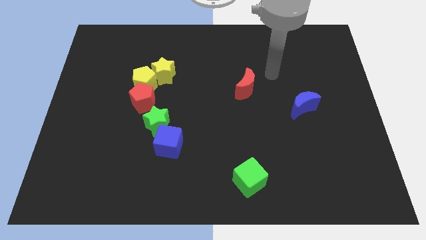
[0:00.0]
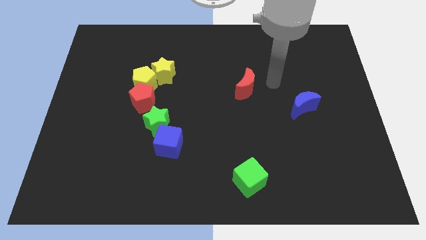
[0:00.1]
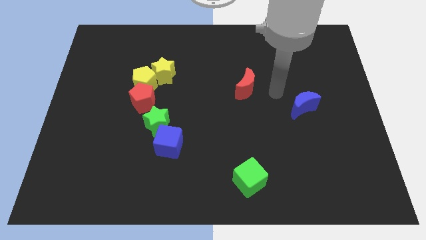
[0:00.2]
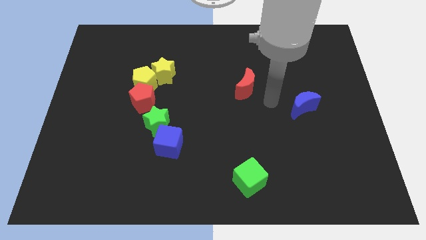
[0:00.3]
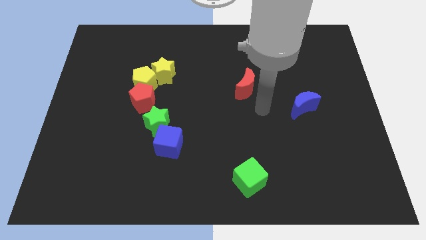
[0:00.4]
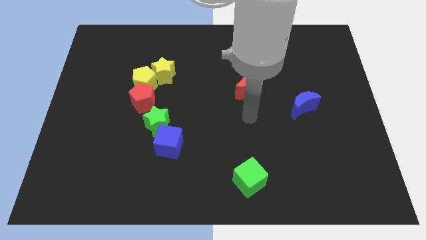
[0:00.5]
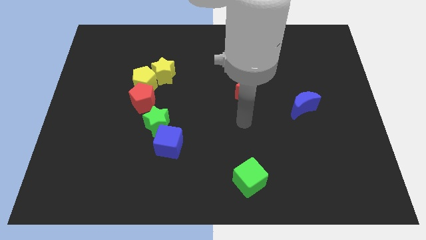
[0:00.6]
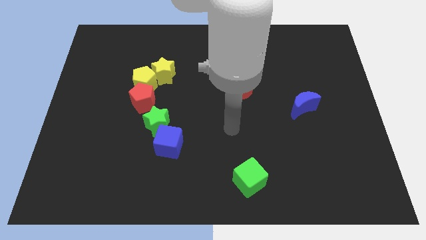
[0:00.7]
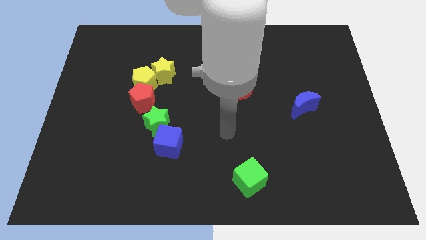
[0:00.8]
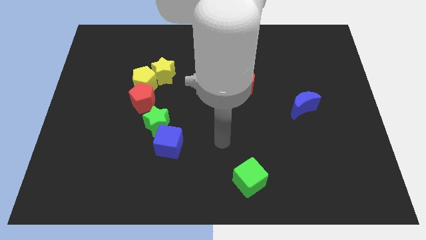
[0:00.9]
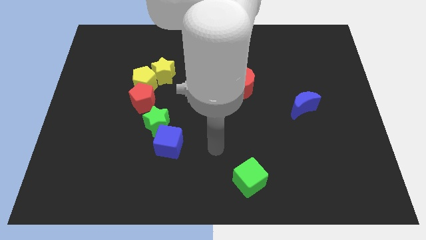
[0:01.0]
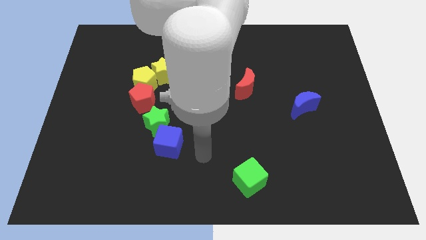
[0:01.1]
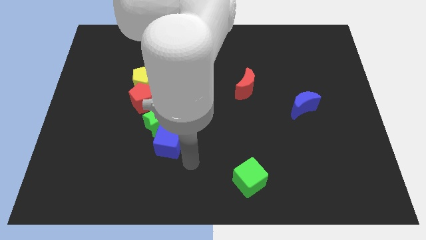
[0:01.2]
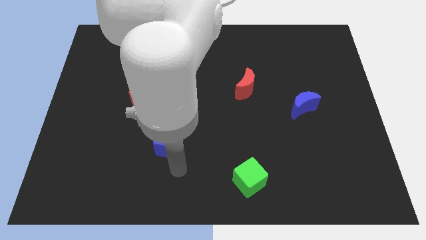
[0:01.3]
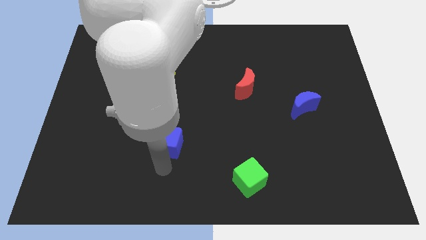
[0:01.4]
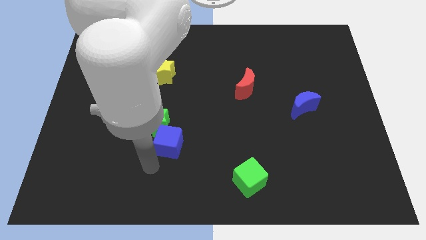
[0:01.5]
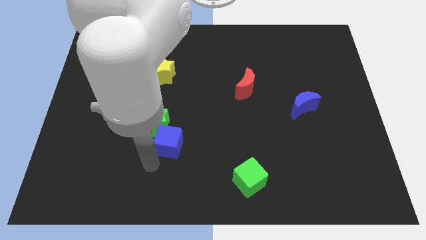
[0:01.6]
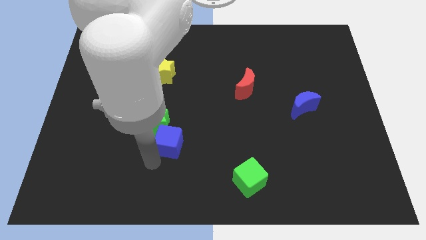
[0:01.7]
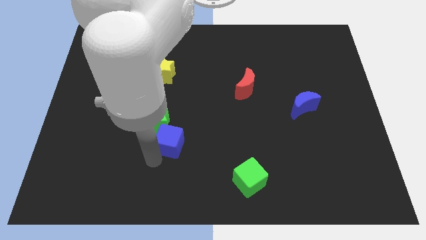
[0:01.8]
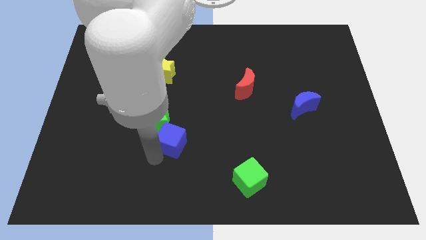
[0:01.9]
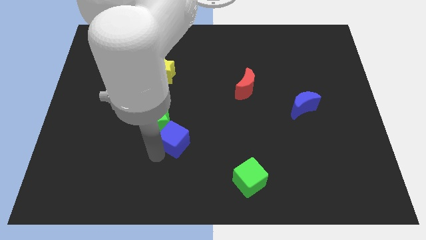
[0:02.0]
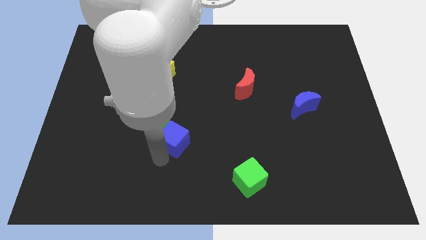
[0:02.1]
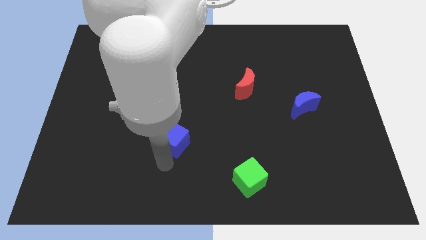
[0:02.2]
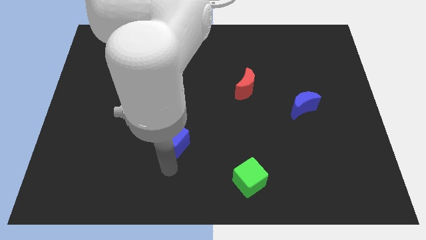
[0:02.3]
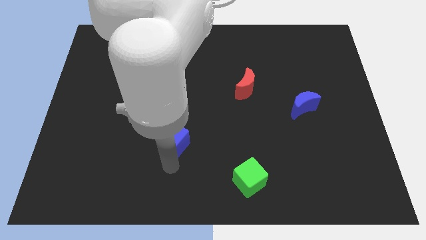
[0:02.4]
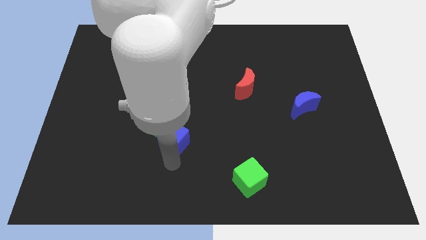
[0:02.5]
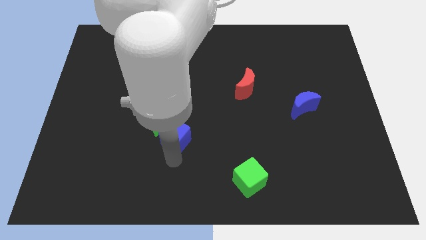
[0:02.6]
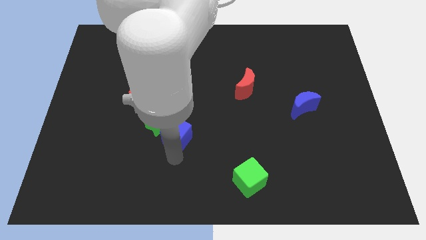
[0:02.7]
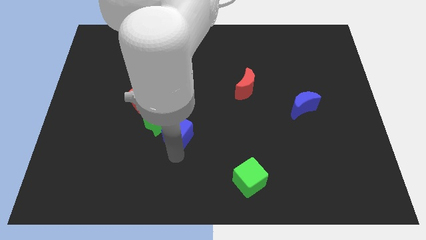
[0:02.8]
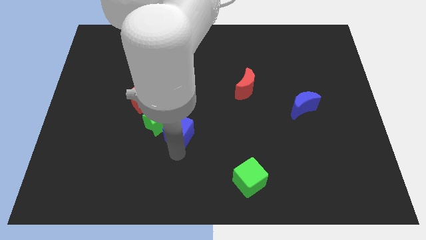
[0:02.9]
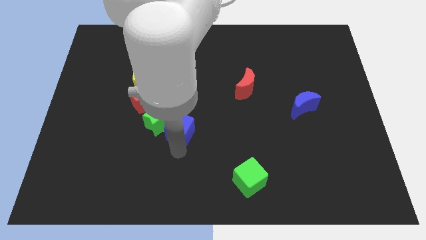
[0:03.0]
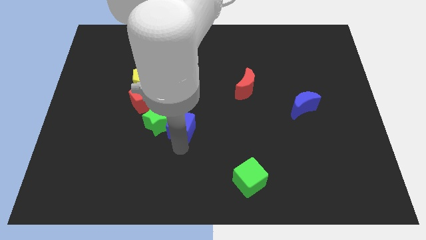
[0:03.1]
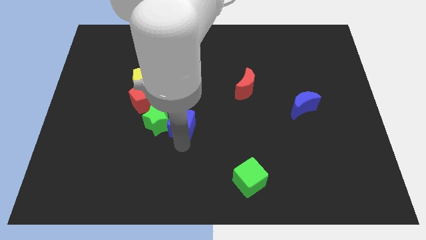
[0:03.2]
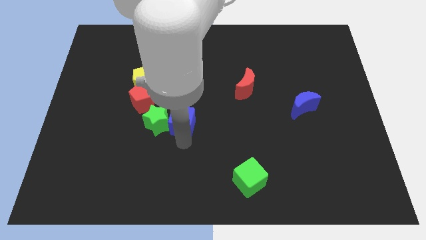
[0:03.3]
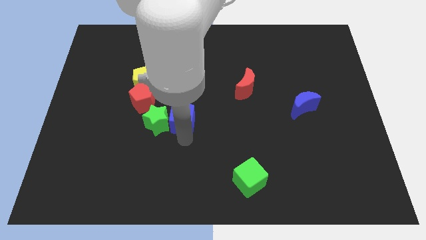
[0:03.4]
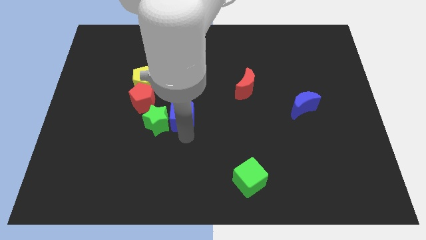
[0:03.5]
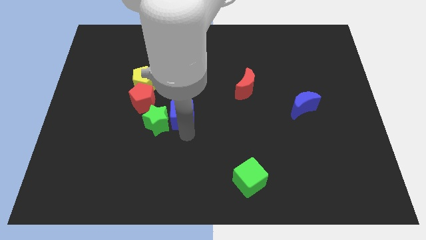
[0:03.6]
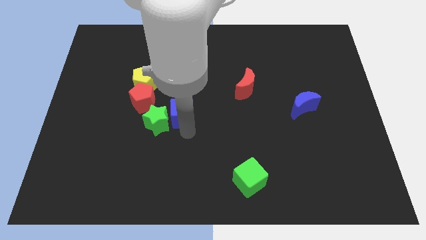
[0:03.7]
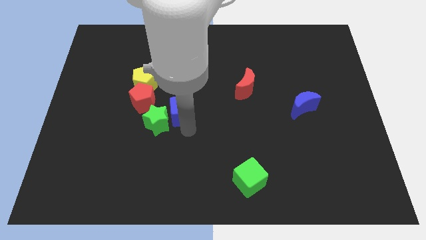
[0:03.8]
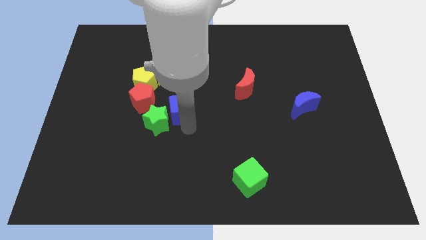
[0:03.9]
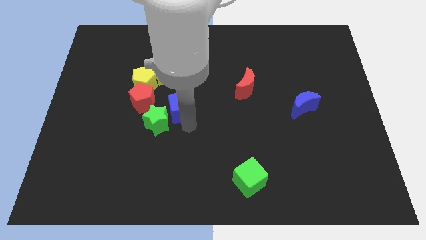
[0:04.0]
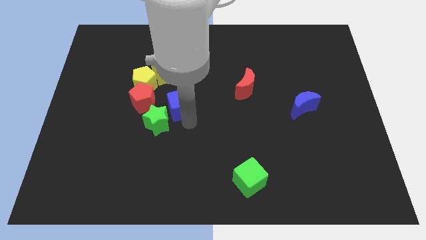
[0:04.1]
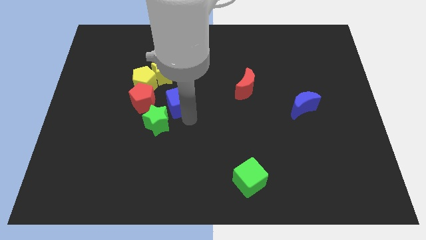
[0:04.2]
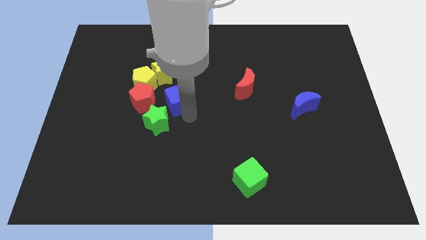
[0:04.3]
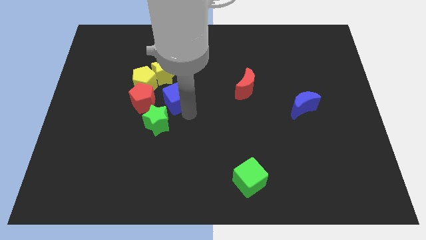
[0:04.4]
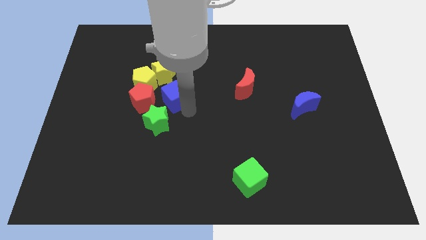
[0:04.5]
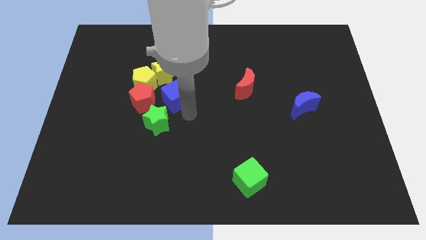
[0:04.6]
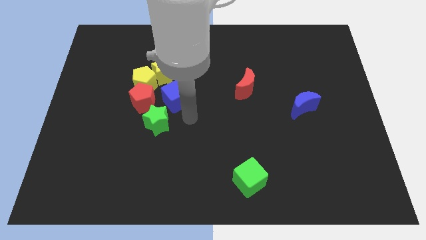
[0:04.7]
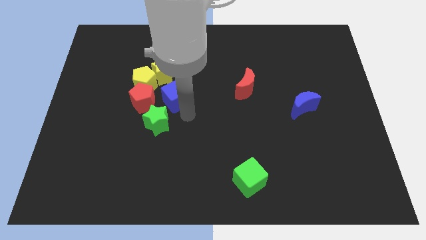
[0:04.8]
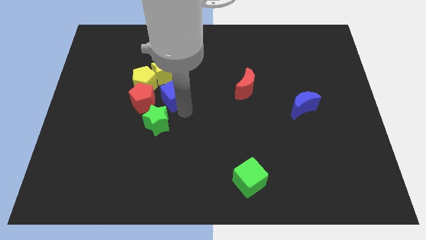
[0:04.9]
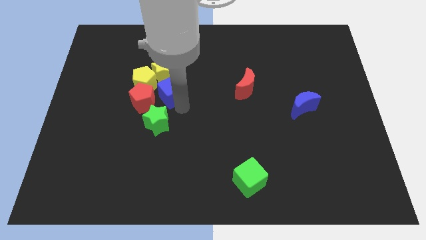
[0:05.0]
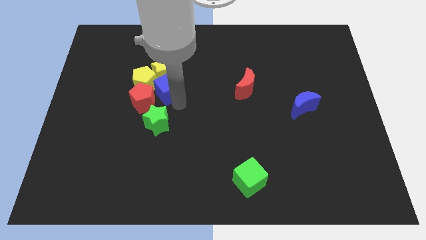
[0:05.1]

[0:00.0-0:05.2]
push the blue cube towards the yellow star

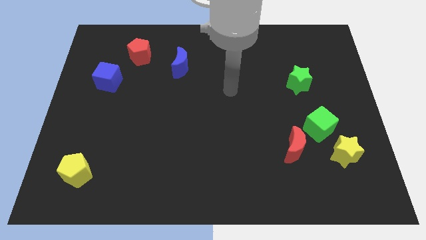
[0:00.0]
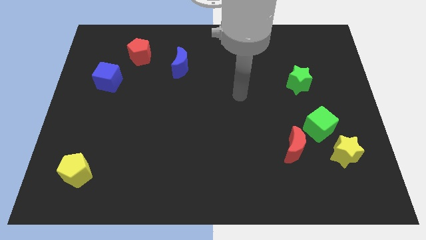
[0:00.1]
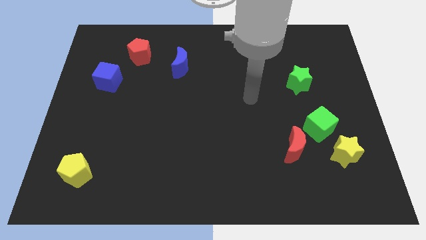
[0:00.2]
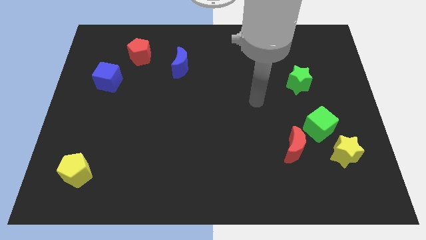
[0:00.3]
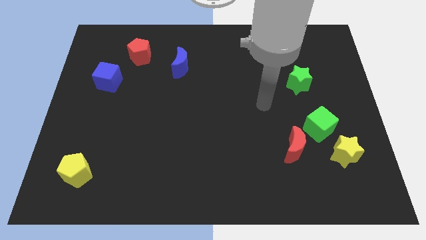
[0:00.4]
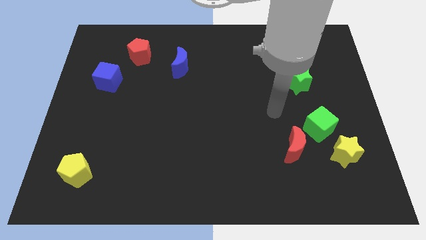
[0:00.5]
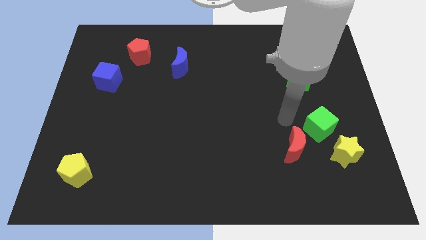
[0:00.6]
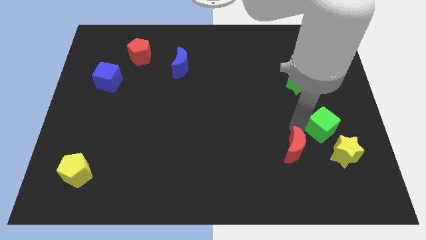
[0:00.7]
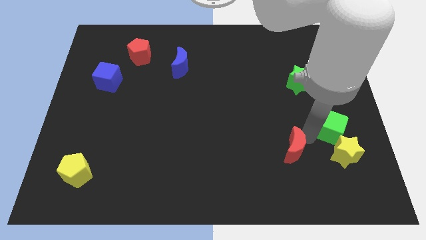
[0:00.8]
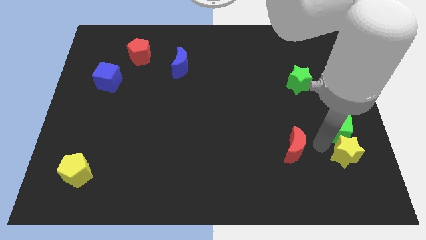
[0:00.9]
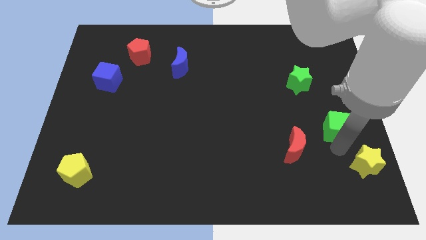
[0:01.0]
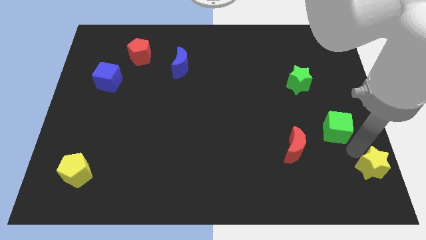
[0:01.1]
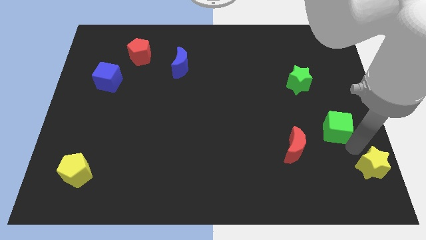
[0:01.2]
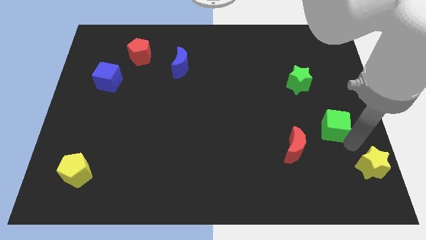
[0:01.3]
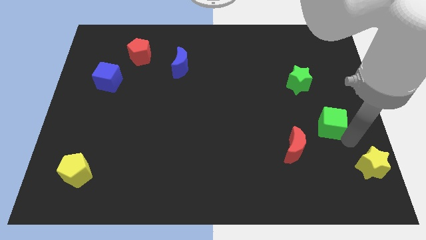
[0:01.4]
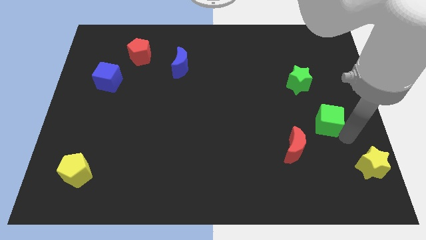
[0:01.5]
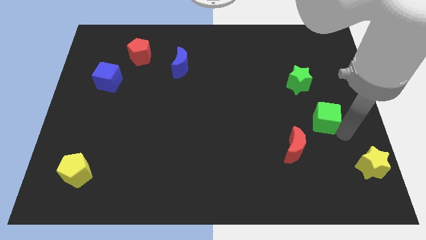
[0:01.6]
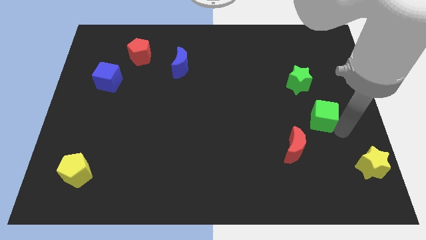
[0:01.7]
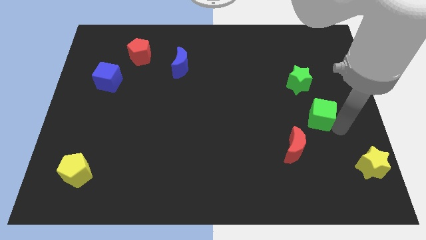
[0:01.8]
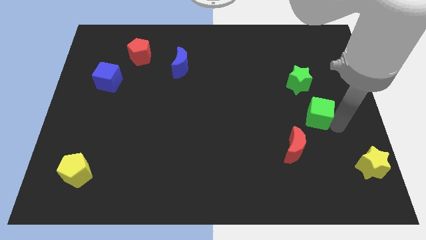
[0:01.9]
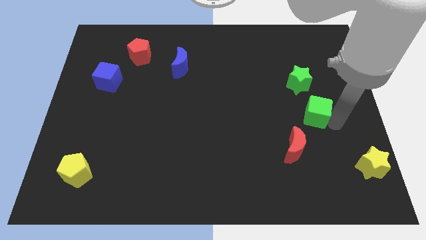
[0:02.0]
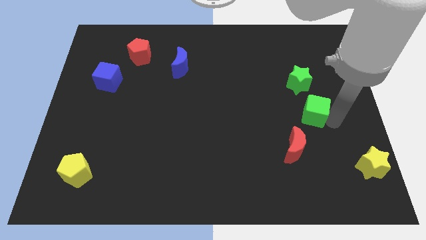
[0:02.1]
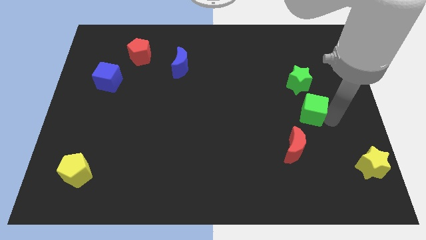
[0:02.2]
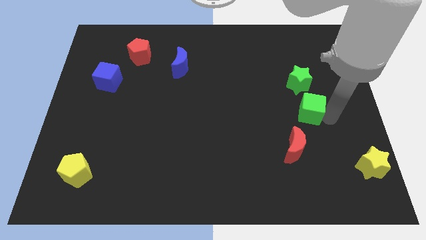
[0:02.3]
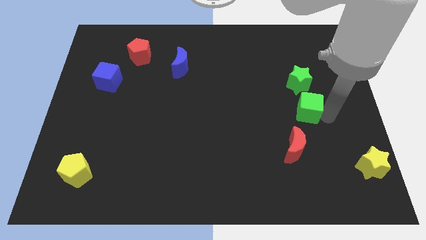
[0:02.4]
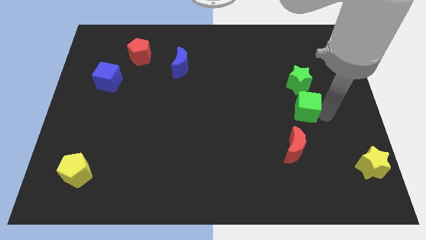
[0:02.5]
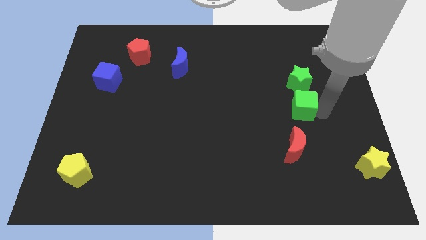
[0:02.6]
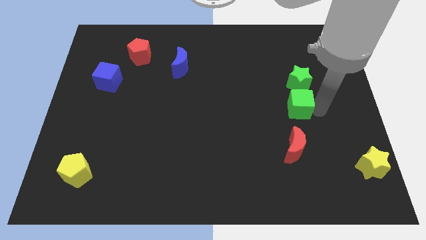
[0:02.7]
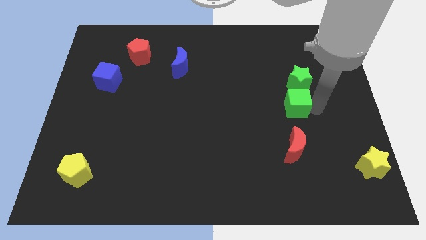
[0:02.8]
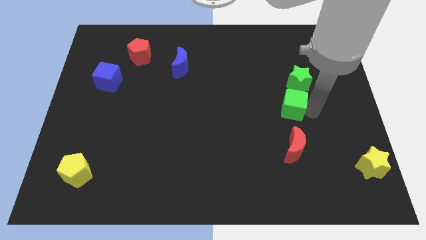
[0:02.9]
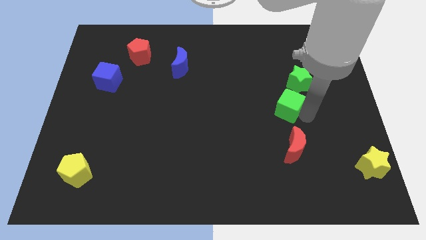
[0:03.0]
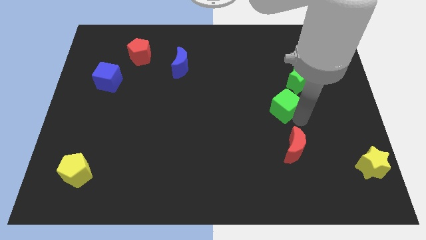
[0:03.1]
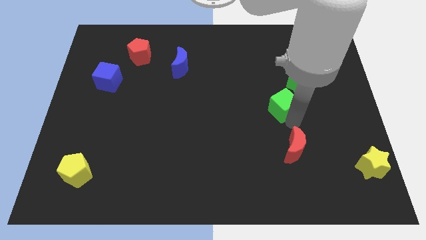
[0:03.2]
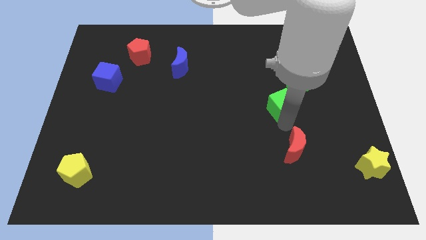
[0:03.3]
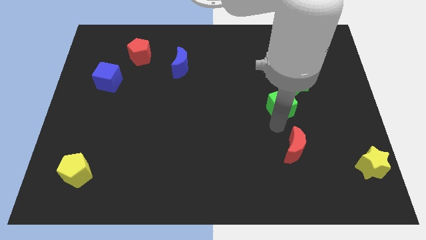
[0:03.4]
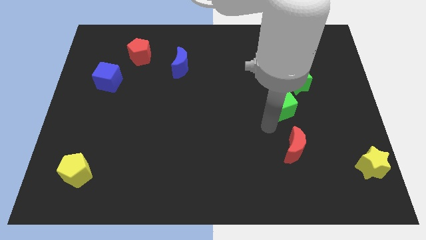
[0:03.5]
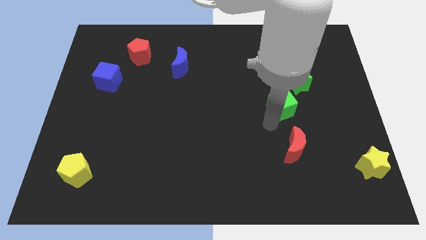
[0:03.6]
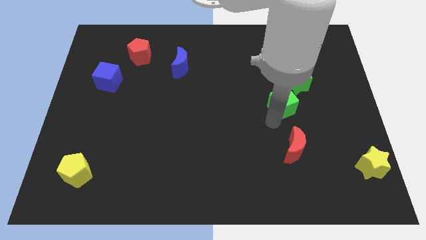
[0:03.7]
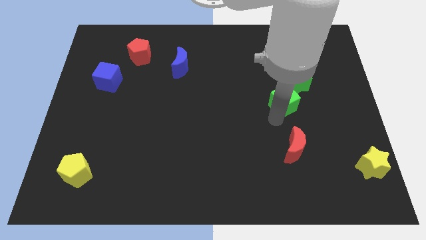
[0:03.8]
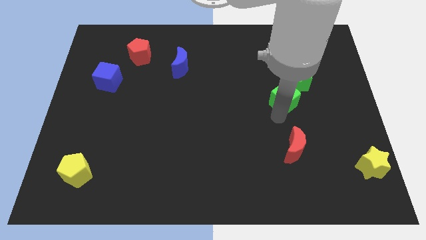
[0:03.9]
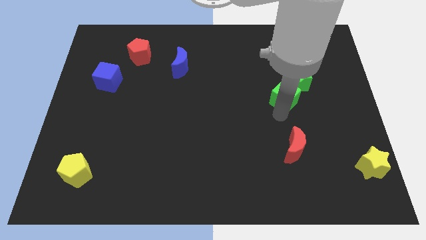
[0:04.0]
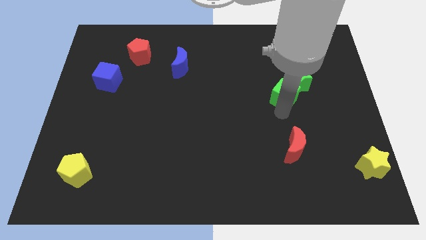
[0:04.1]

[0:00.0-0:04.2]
move the green cube next to the green star
